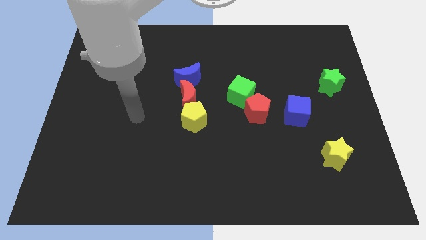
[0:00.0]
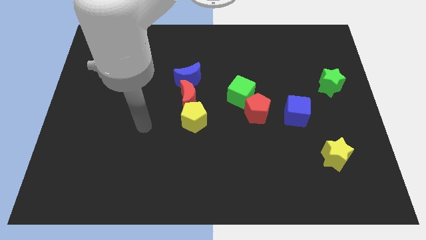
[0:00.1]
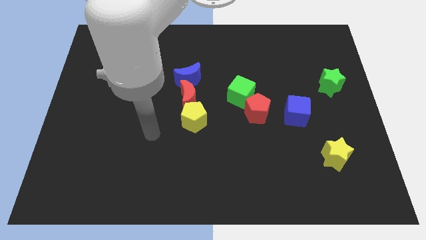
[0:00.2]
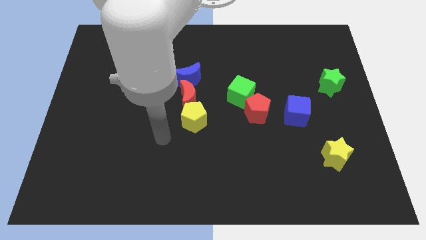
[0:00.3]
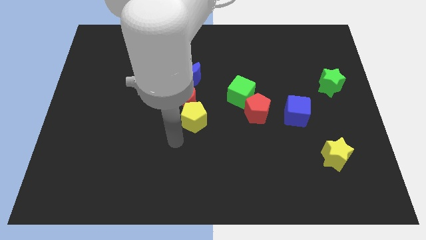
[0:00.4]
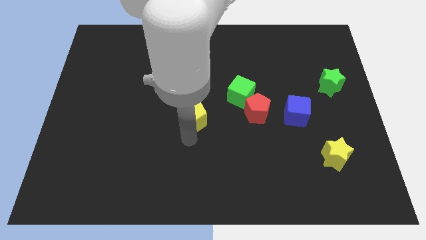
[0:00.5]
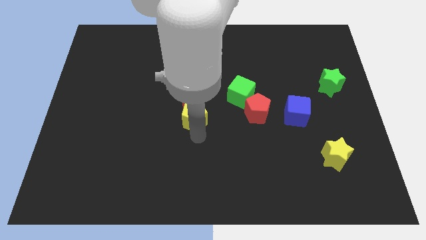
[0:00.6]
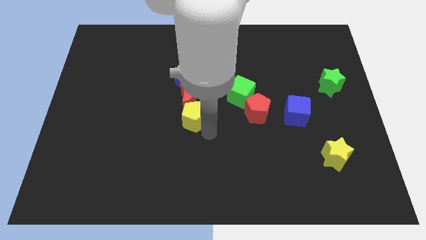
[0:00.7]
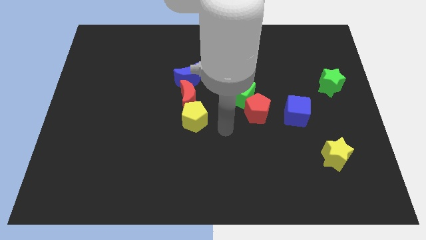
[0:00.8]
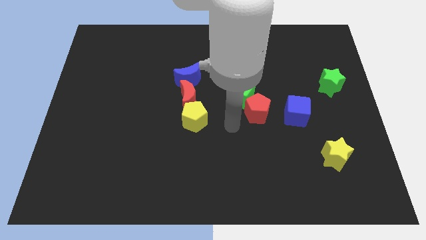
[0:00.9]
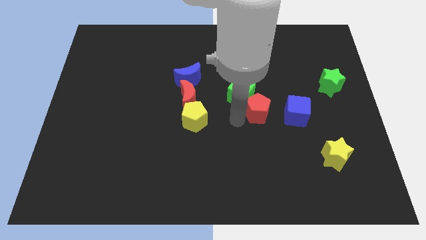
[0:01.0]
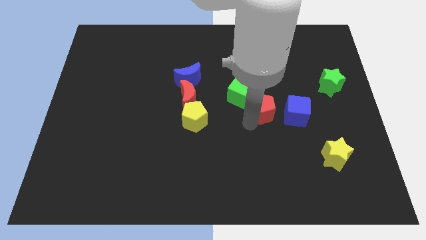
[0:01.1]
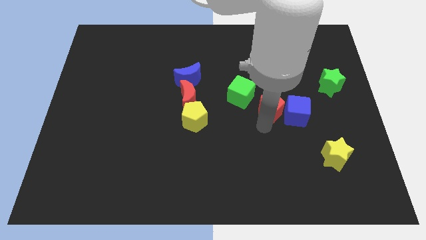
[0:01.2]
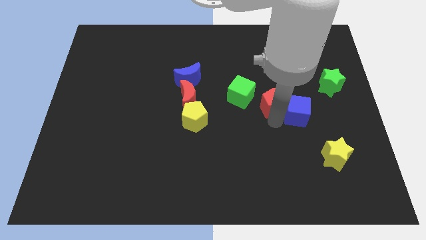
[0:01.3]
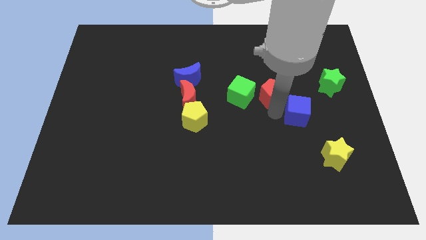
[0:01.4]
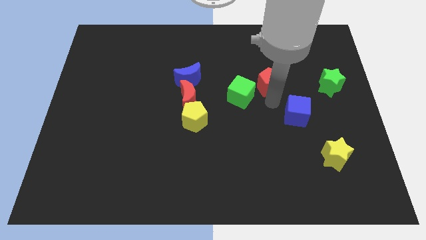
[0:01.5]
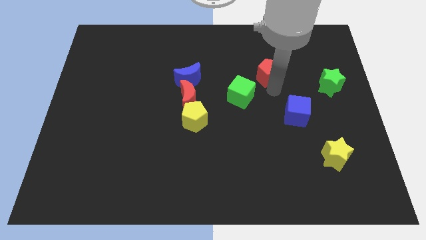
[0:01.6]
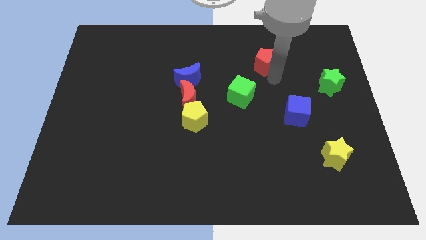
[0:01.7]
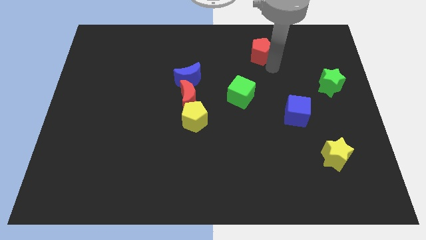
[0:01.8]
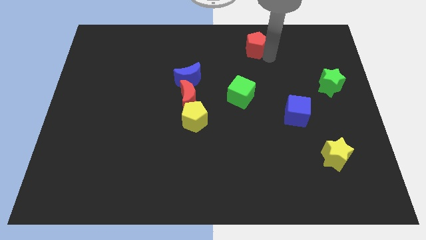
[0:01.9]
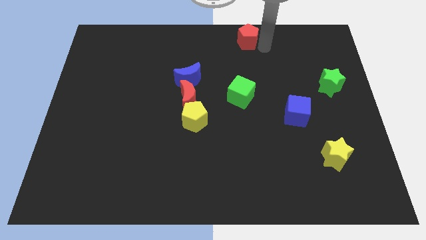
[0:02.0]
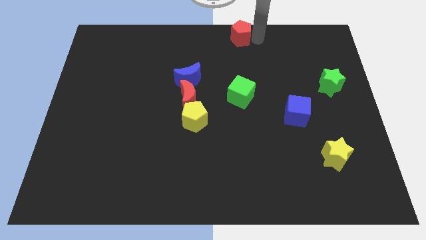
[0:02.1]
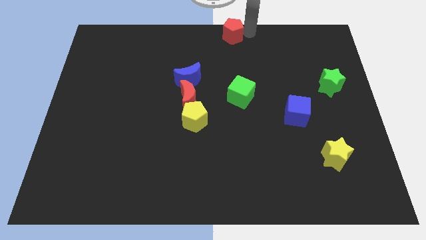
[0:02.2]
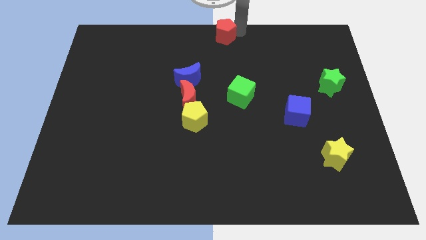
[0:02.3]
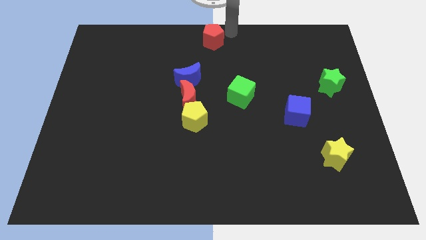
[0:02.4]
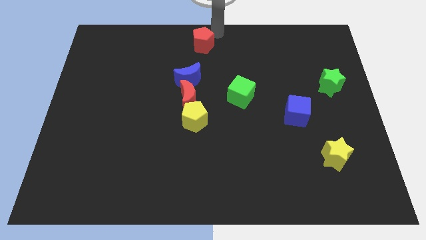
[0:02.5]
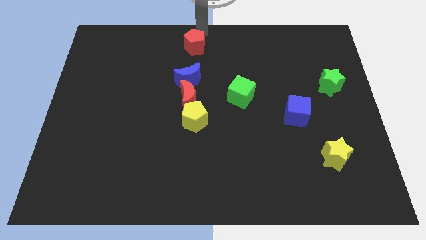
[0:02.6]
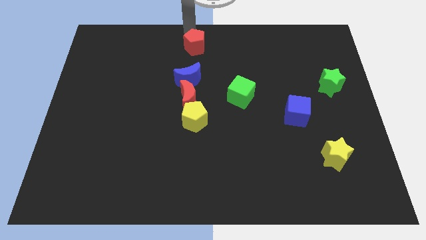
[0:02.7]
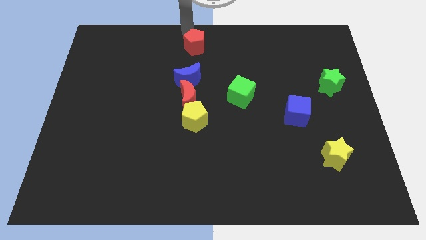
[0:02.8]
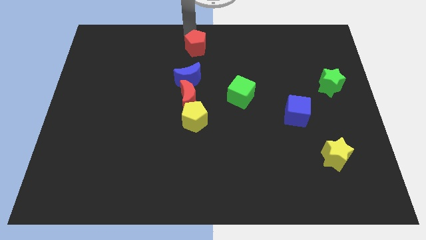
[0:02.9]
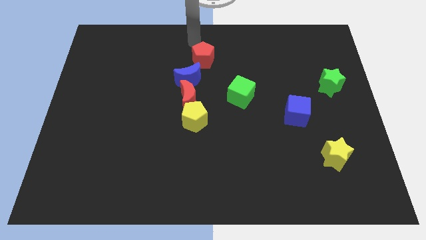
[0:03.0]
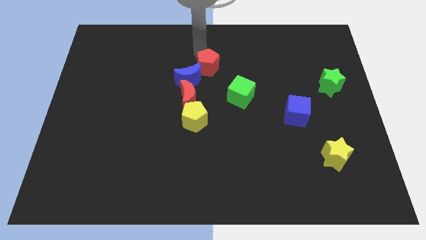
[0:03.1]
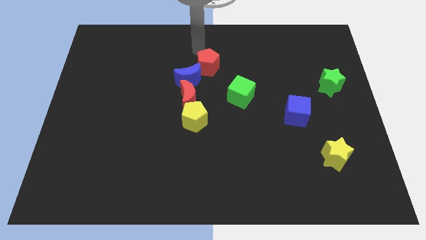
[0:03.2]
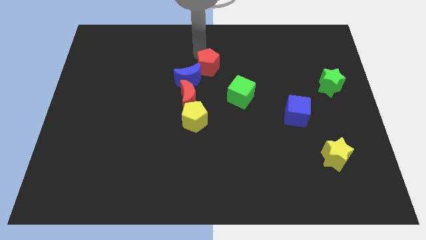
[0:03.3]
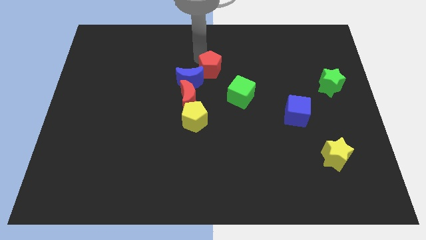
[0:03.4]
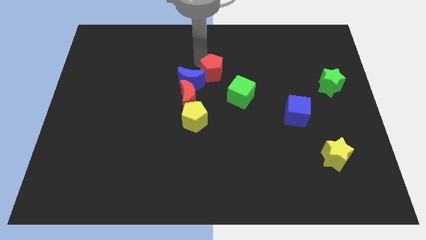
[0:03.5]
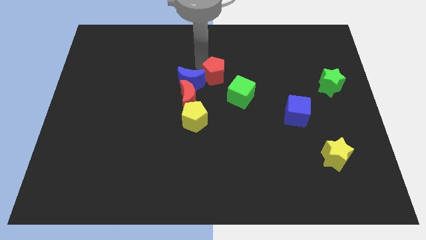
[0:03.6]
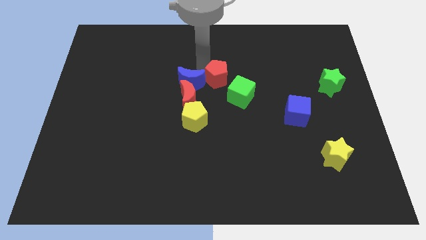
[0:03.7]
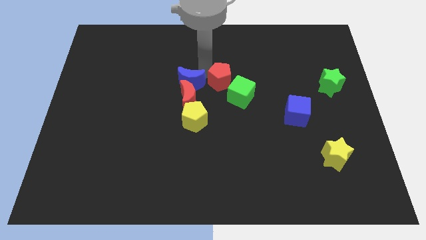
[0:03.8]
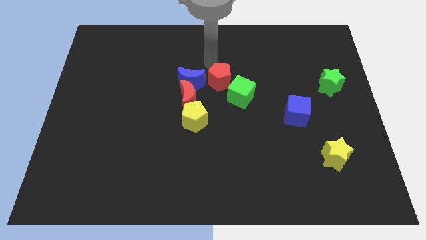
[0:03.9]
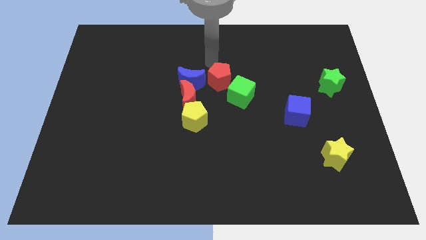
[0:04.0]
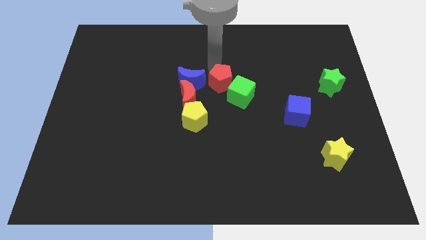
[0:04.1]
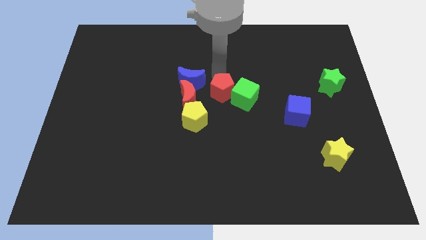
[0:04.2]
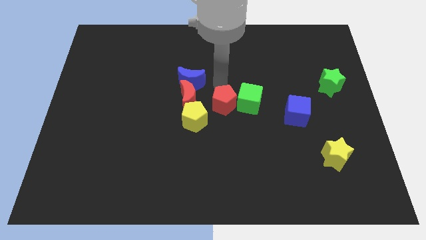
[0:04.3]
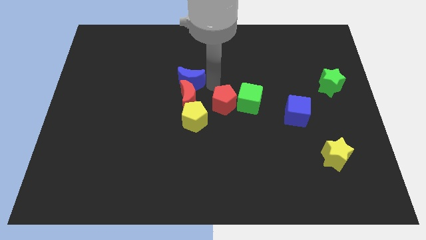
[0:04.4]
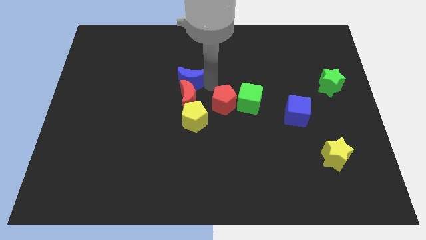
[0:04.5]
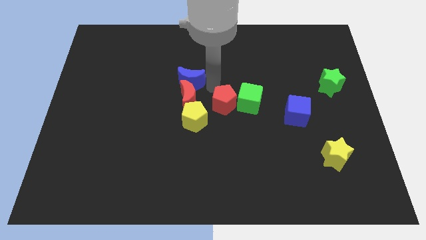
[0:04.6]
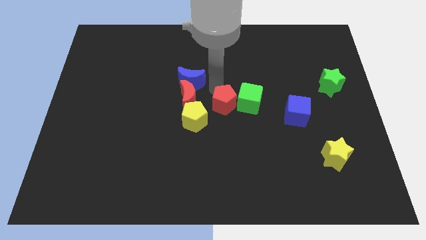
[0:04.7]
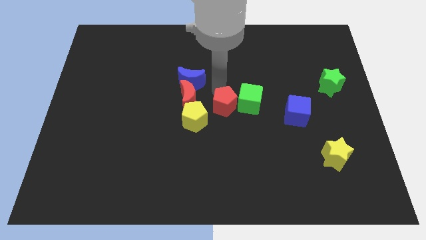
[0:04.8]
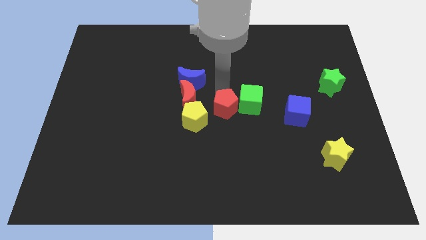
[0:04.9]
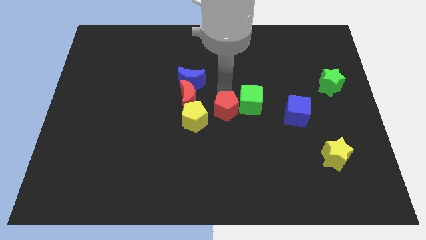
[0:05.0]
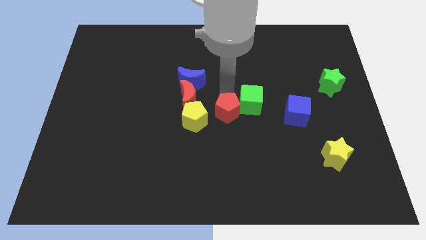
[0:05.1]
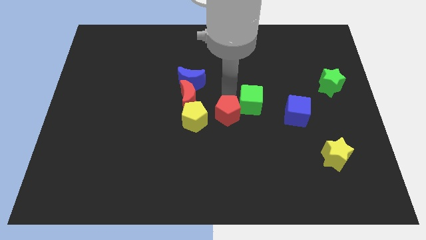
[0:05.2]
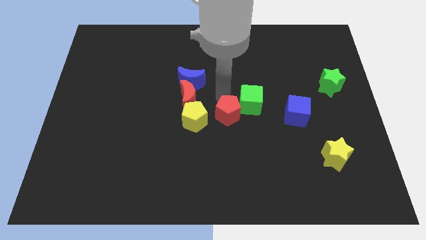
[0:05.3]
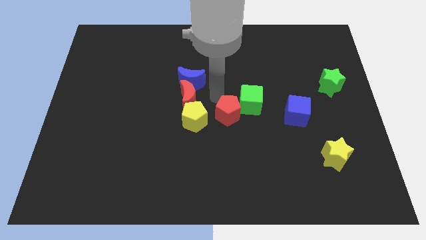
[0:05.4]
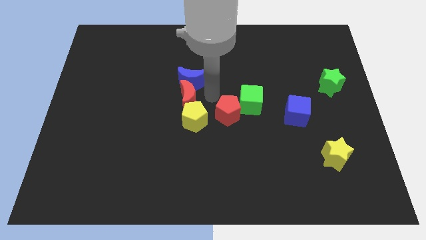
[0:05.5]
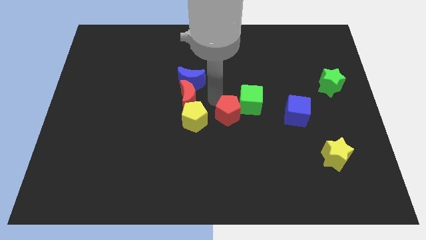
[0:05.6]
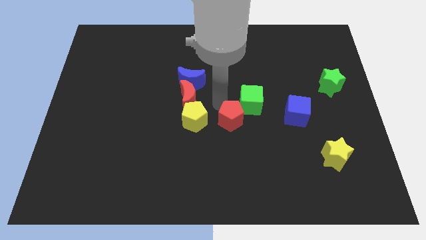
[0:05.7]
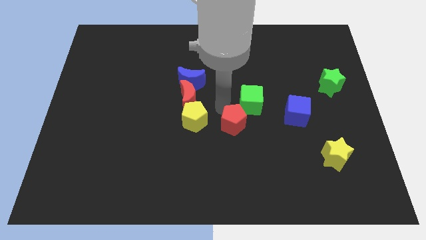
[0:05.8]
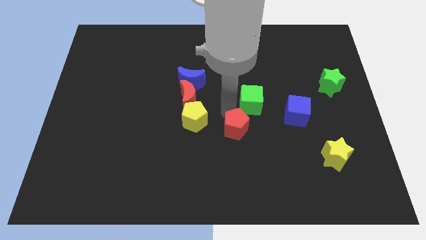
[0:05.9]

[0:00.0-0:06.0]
push the red pentagon diagonally downwards and to the left slightly

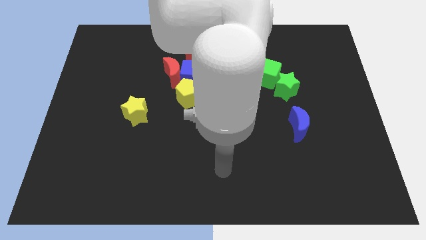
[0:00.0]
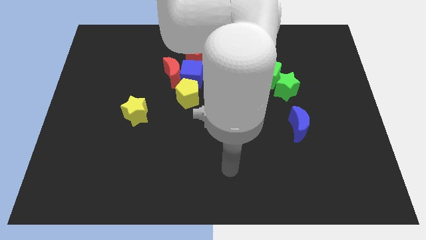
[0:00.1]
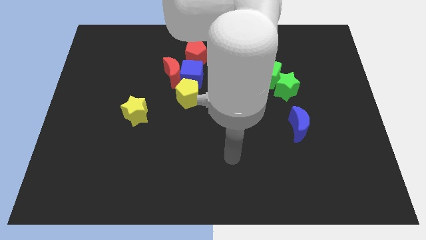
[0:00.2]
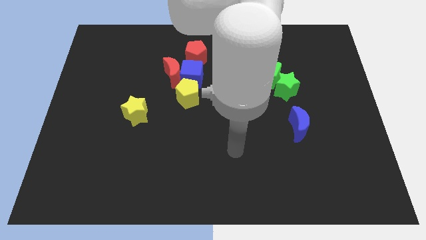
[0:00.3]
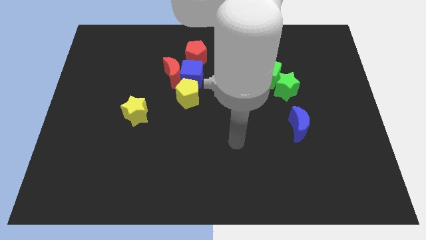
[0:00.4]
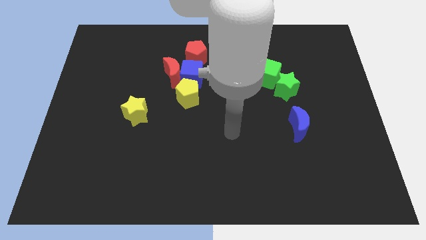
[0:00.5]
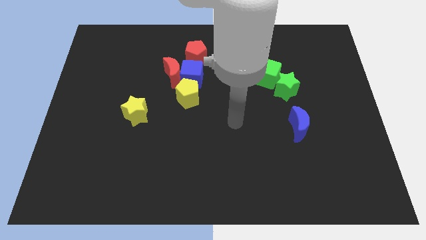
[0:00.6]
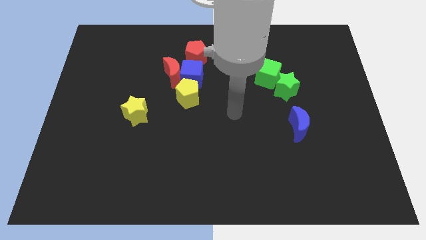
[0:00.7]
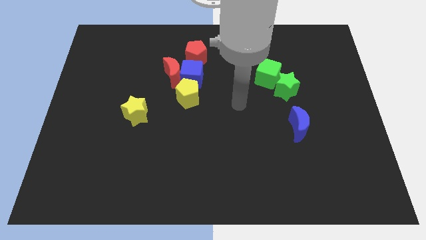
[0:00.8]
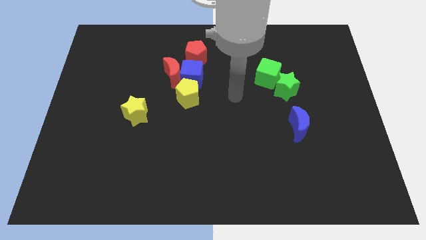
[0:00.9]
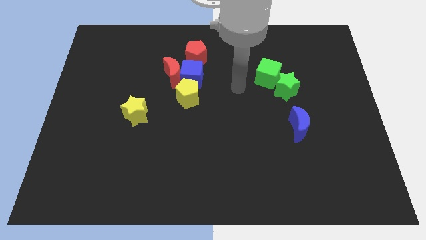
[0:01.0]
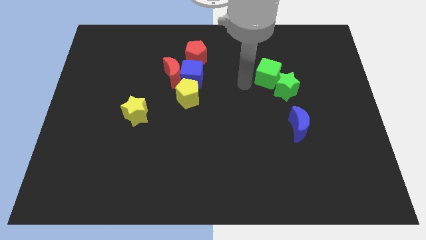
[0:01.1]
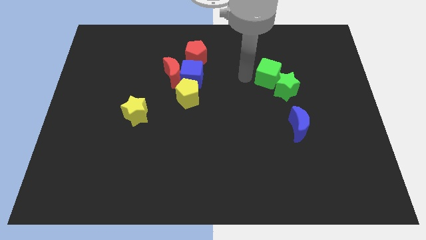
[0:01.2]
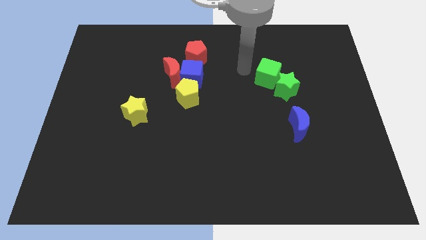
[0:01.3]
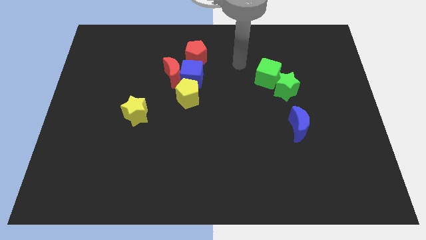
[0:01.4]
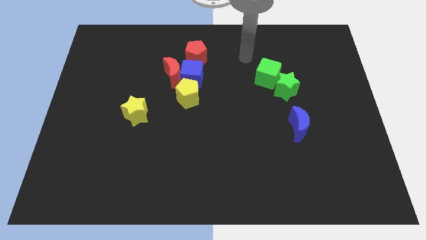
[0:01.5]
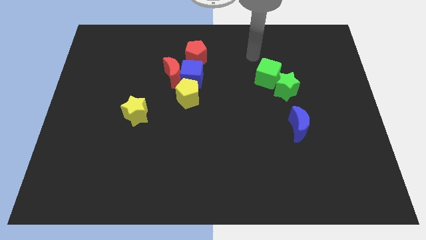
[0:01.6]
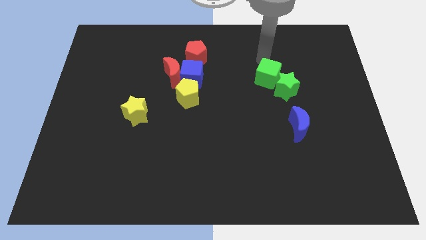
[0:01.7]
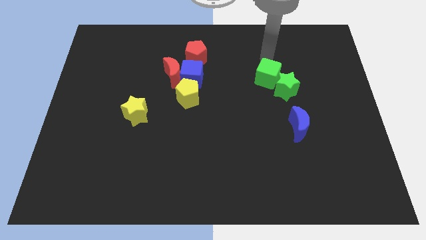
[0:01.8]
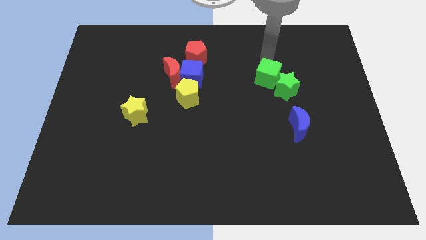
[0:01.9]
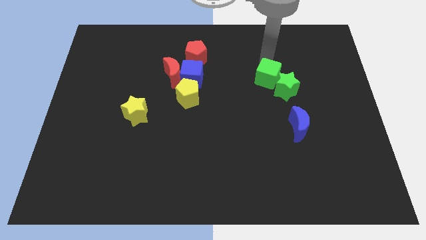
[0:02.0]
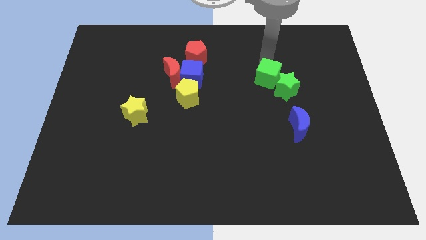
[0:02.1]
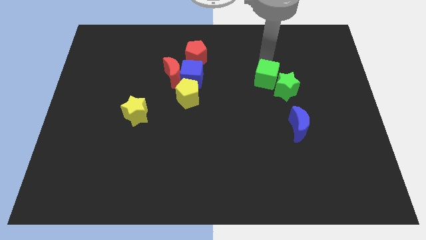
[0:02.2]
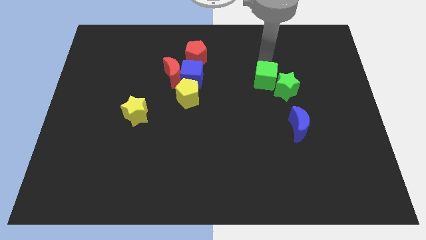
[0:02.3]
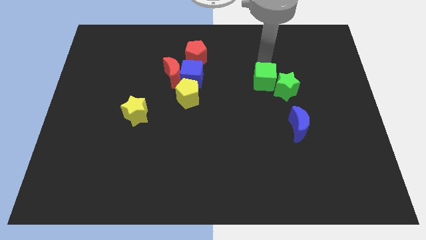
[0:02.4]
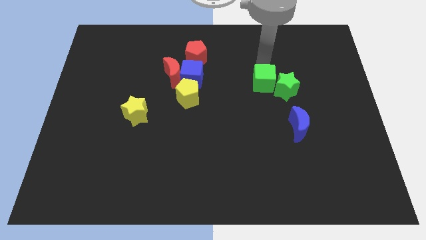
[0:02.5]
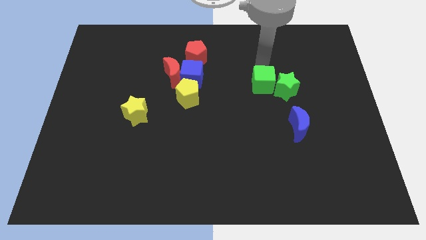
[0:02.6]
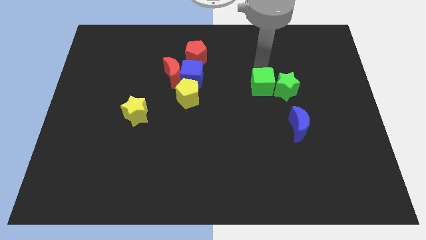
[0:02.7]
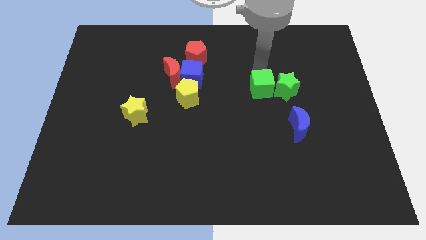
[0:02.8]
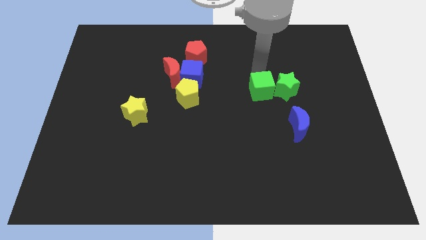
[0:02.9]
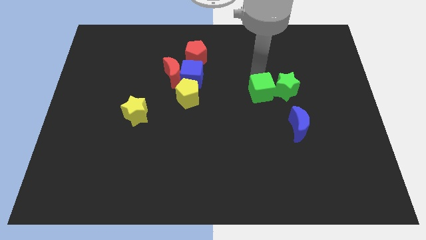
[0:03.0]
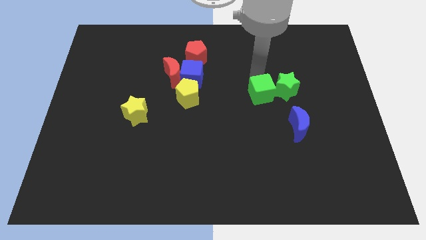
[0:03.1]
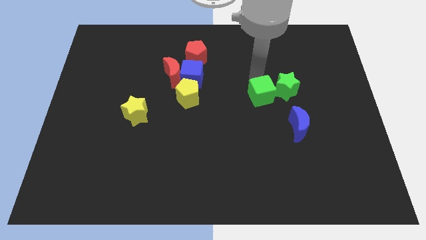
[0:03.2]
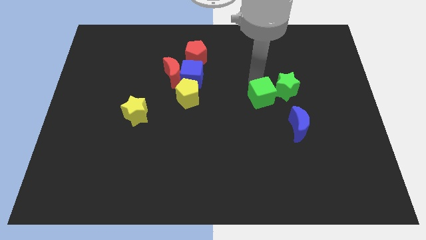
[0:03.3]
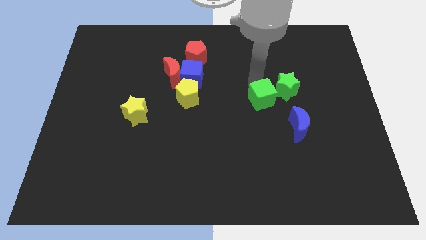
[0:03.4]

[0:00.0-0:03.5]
slide the green cube down a bit
